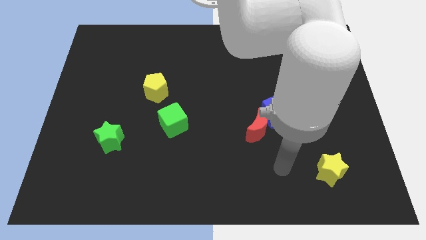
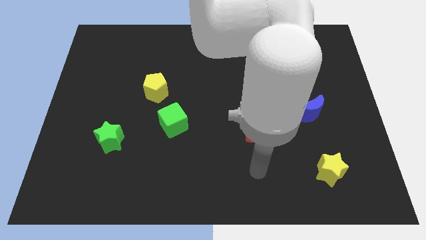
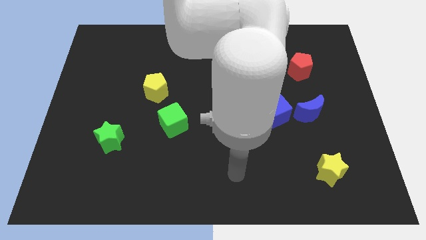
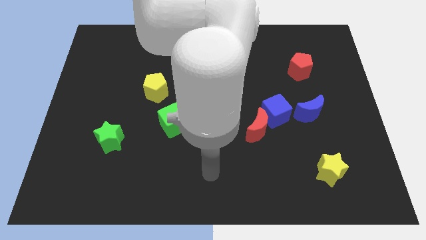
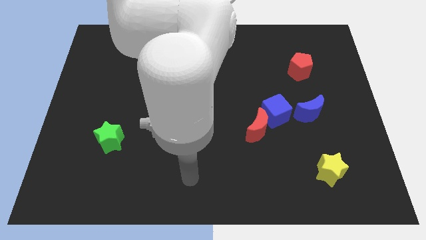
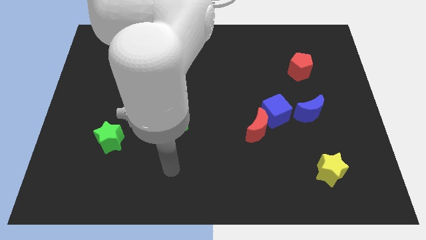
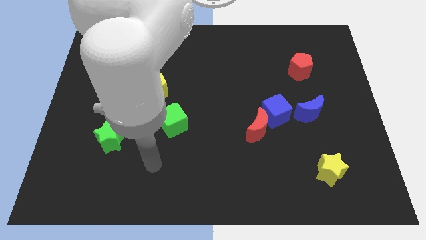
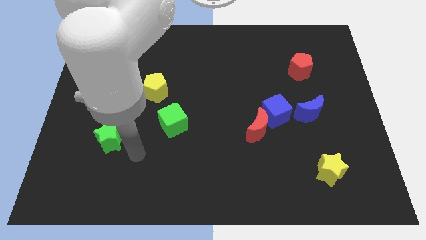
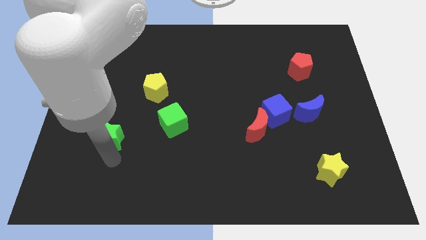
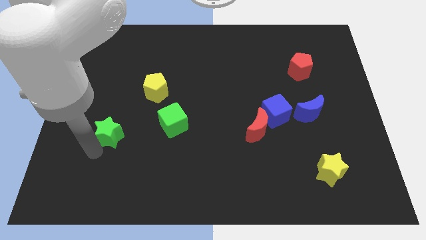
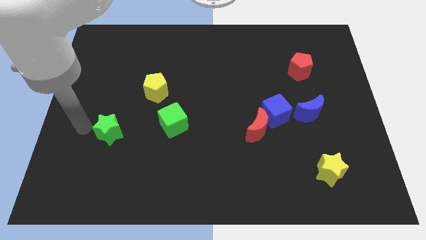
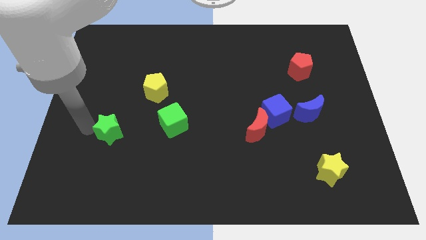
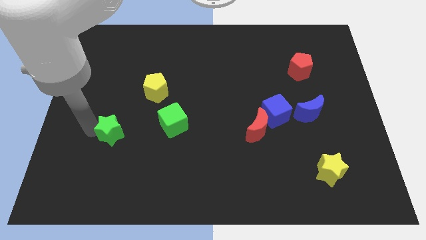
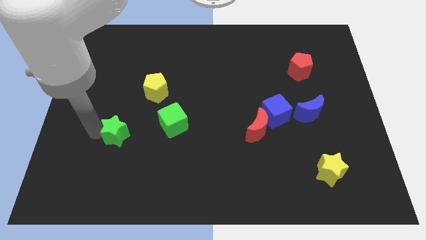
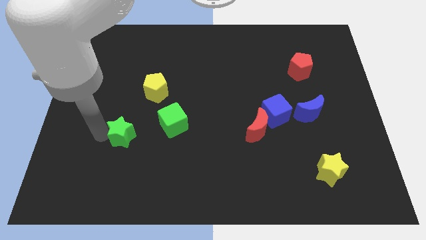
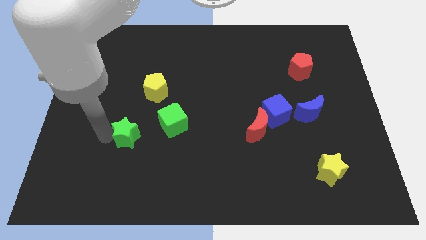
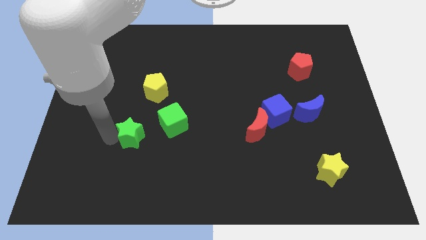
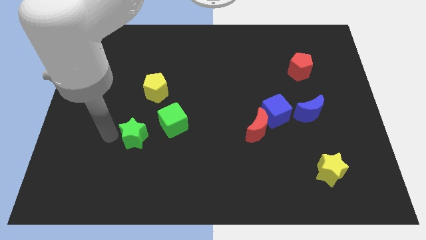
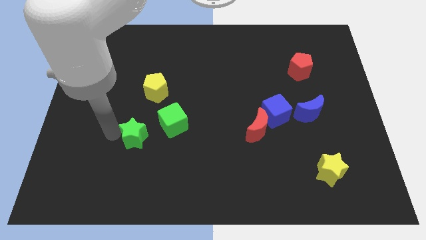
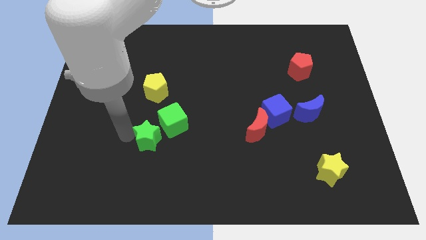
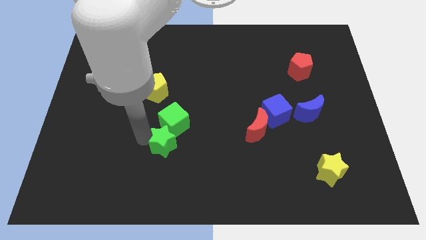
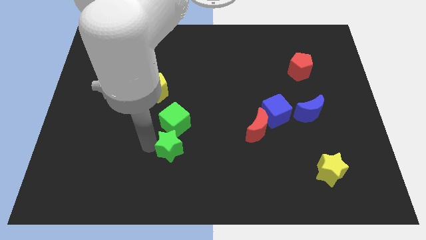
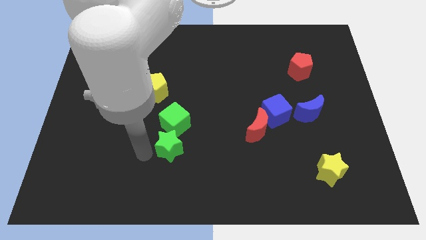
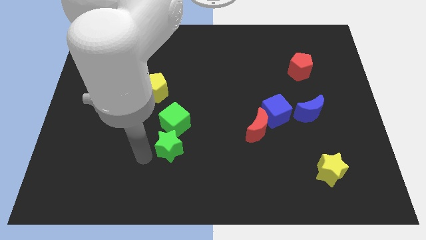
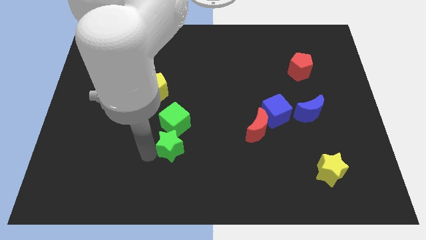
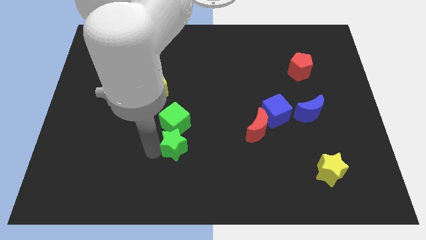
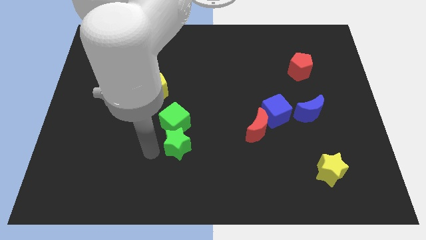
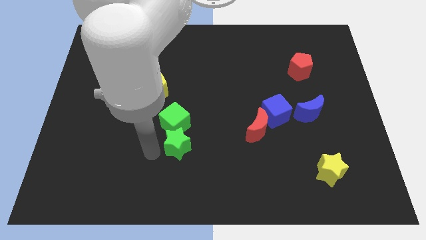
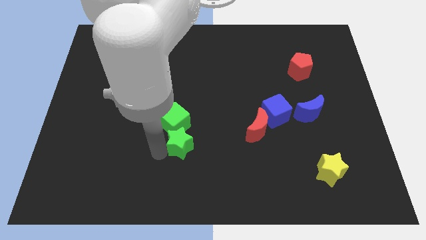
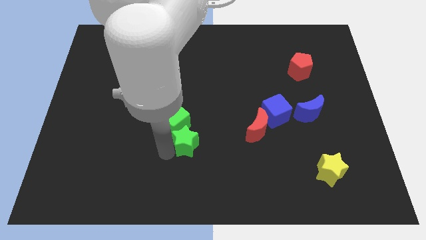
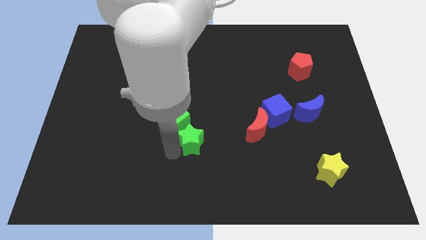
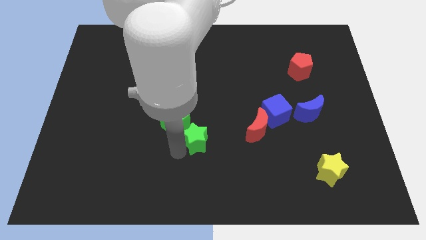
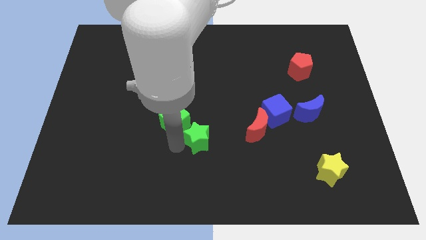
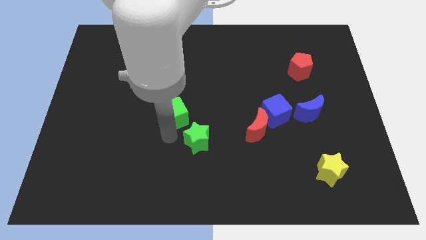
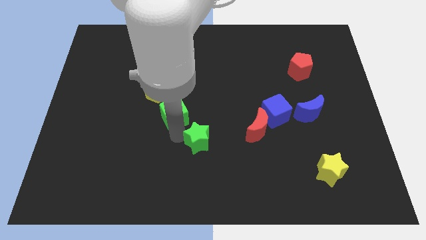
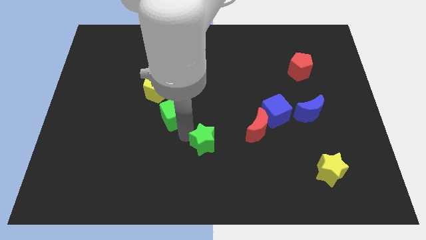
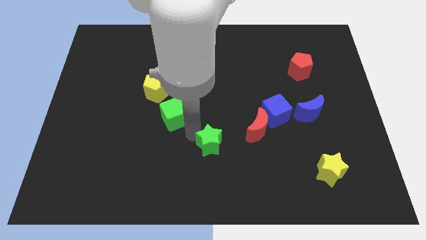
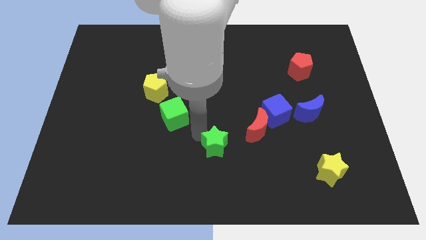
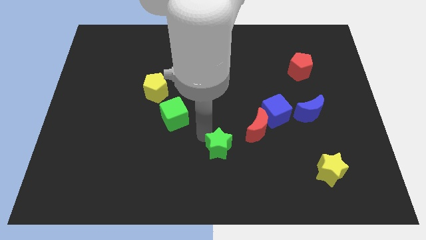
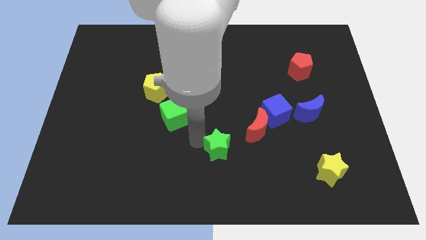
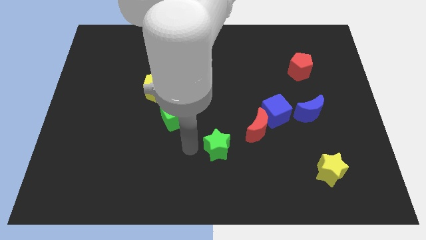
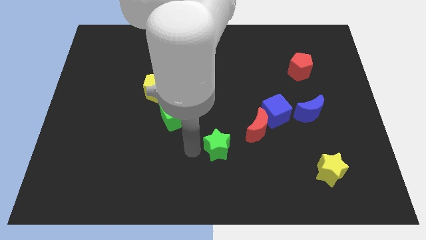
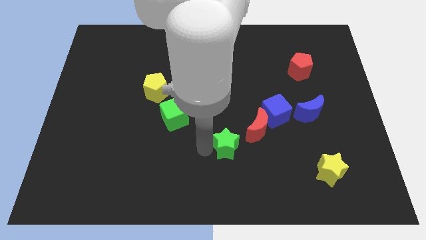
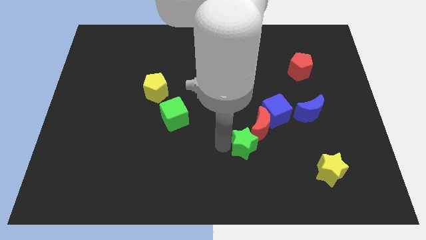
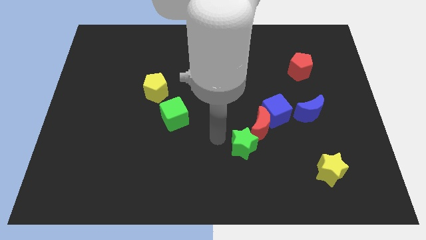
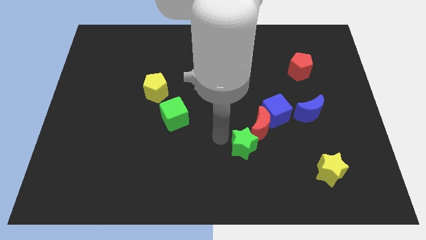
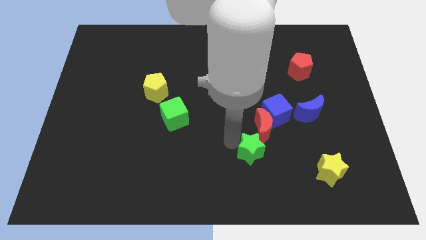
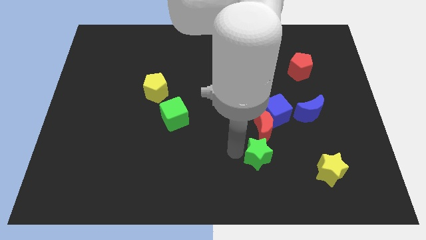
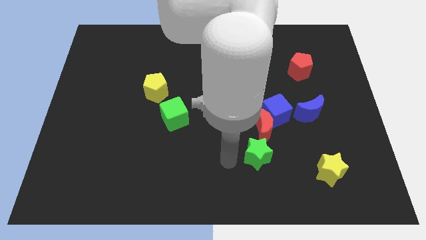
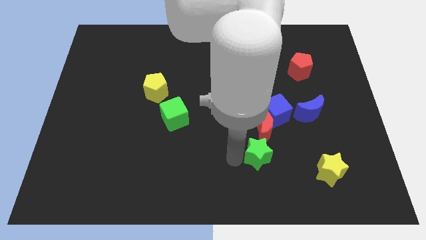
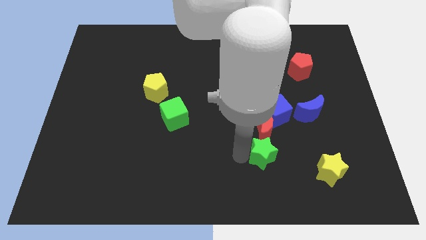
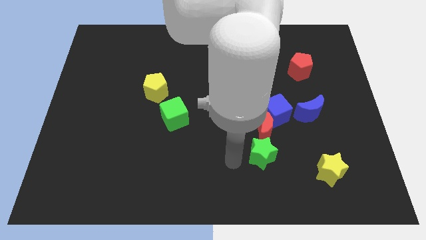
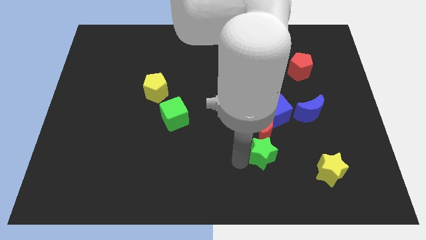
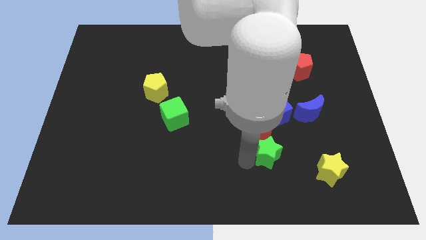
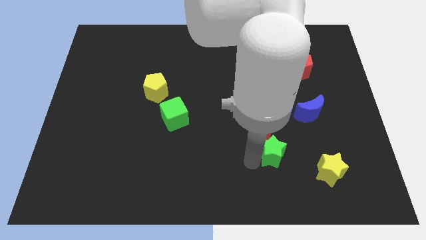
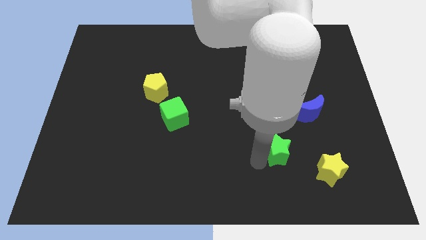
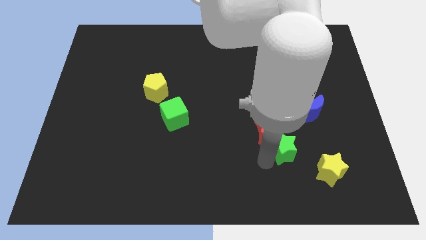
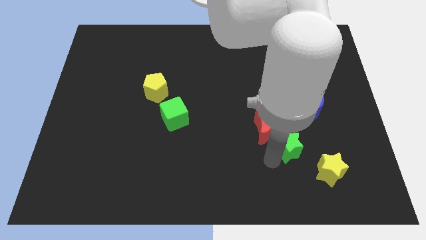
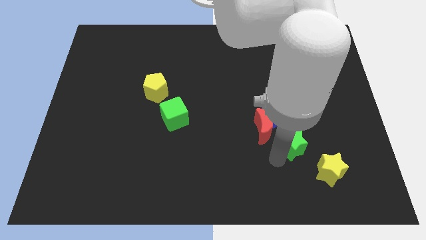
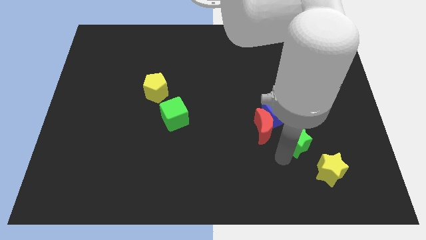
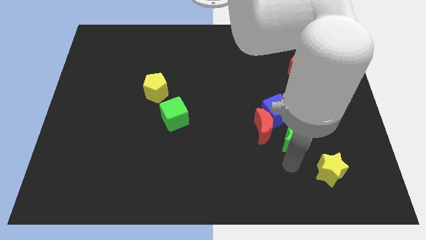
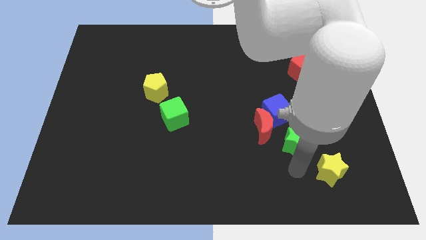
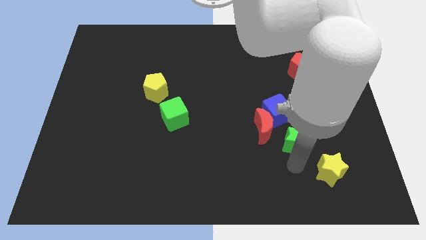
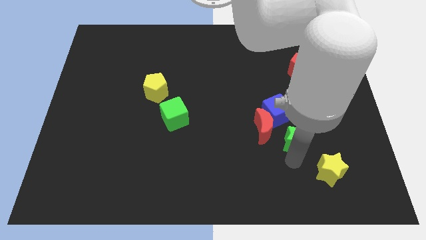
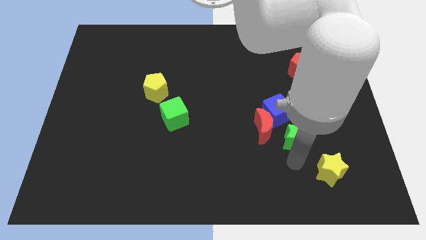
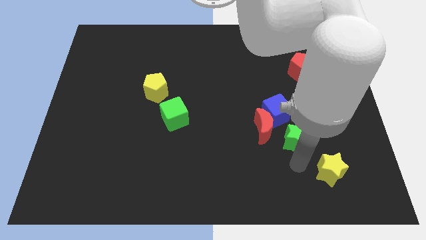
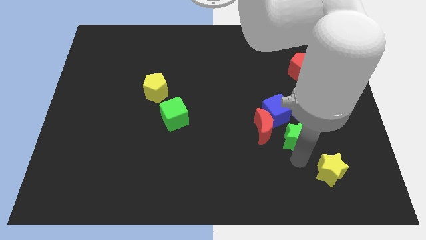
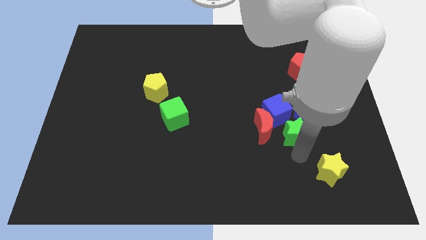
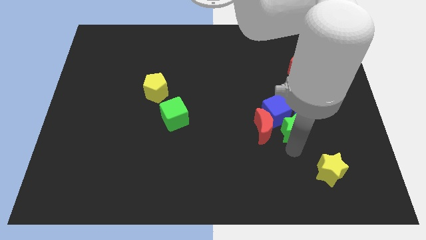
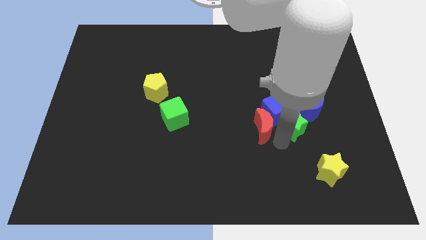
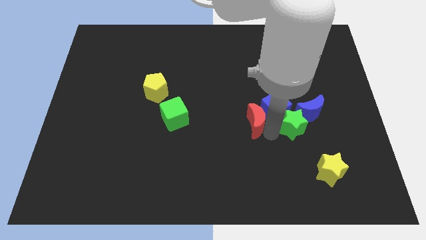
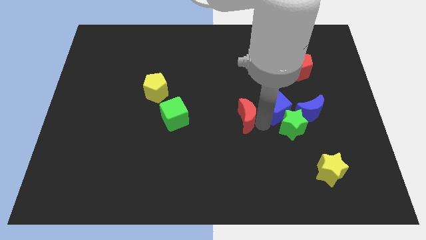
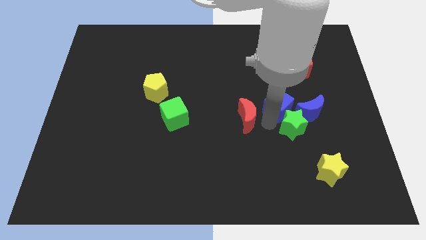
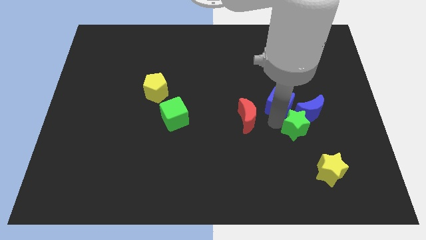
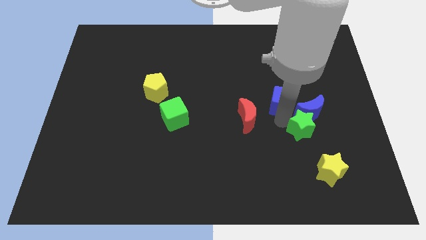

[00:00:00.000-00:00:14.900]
push the green star to the top side of the yellow star
